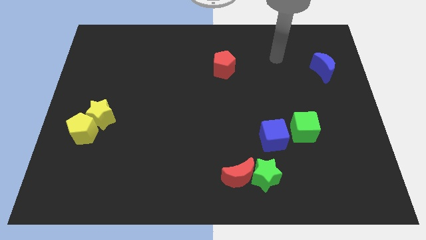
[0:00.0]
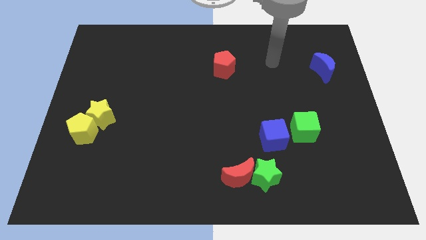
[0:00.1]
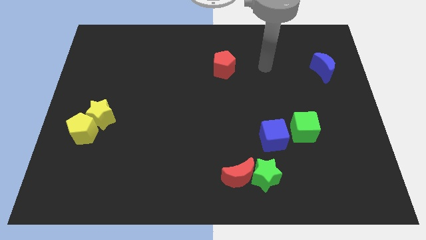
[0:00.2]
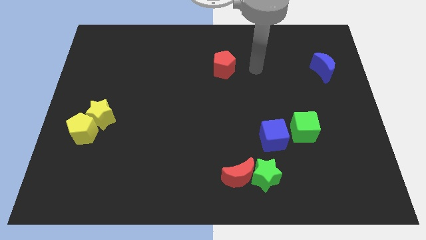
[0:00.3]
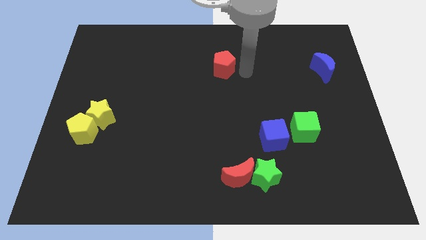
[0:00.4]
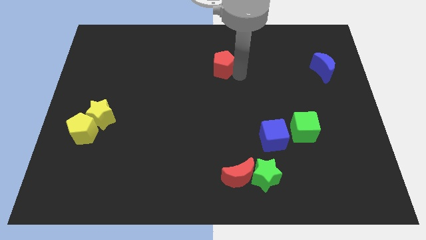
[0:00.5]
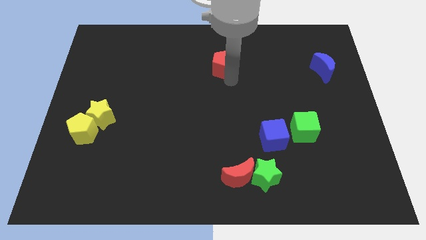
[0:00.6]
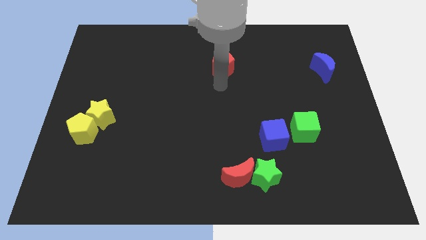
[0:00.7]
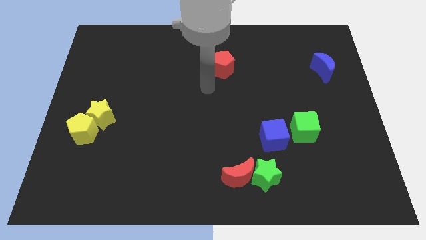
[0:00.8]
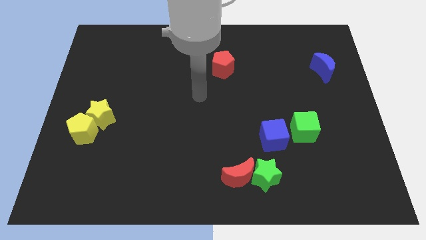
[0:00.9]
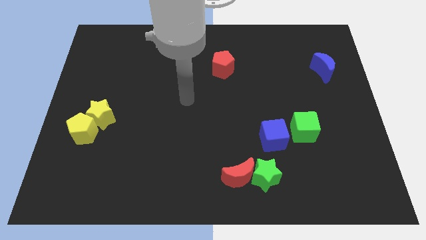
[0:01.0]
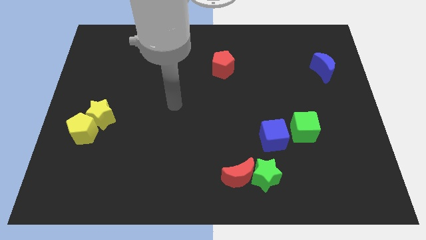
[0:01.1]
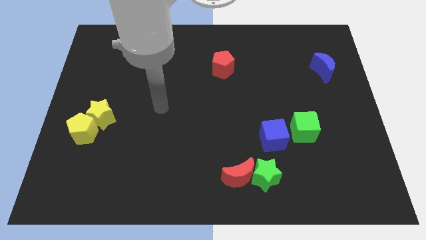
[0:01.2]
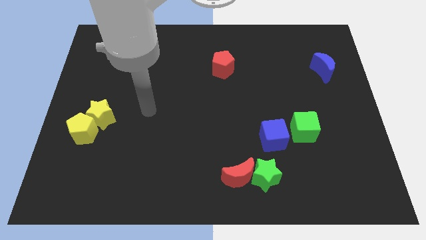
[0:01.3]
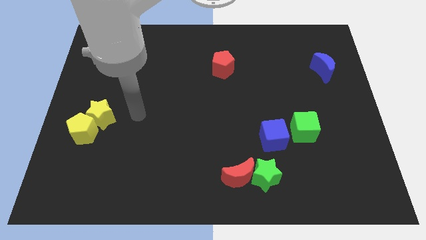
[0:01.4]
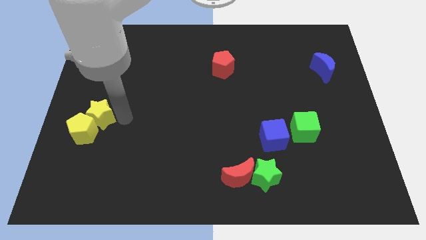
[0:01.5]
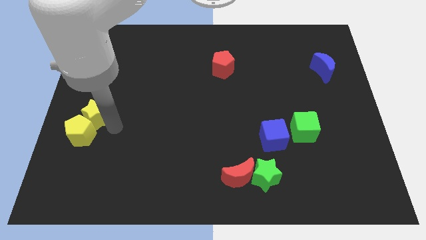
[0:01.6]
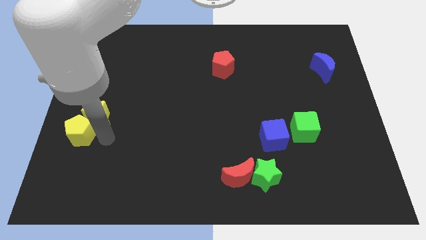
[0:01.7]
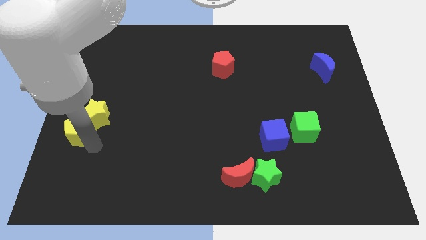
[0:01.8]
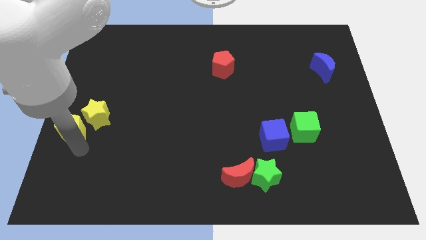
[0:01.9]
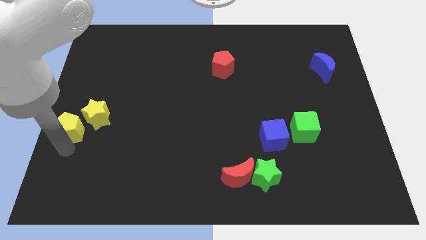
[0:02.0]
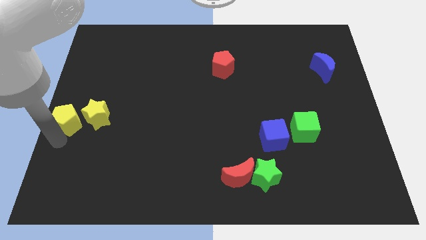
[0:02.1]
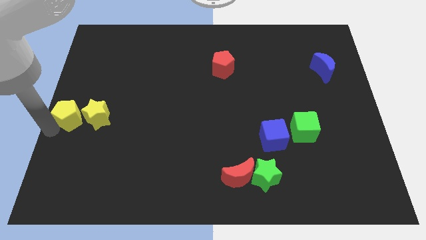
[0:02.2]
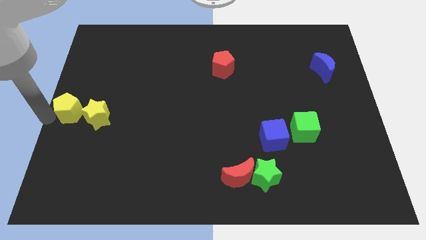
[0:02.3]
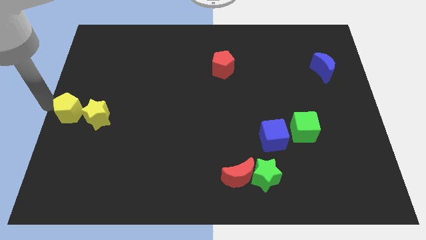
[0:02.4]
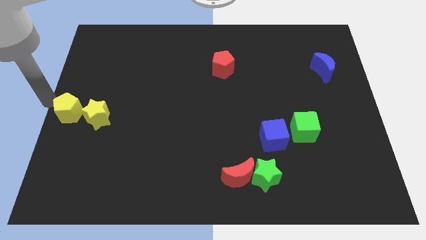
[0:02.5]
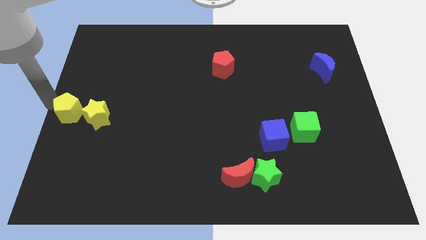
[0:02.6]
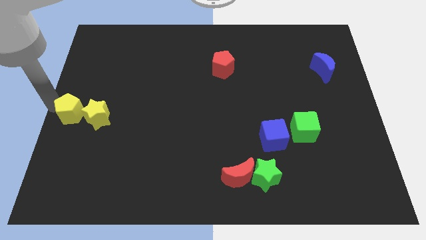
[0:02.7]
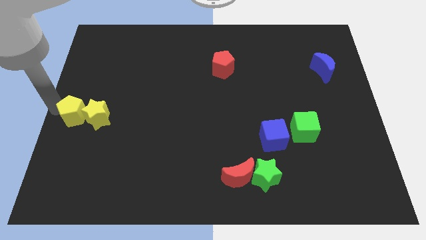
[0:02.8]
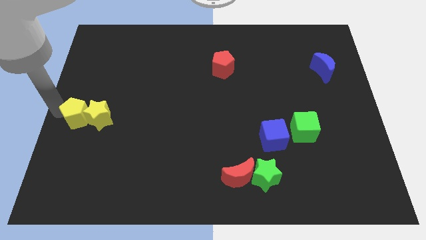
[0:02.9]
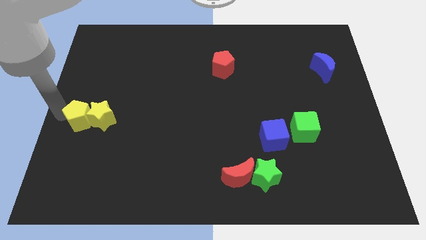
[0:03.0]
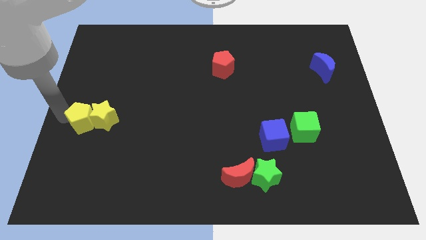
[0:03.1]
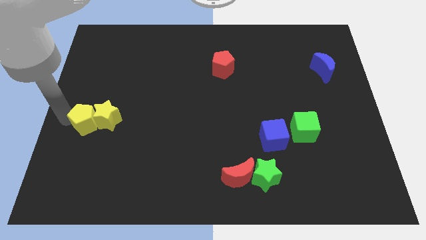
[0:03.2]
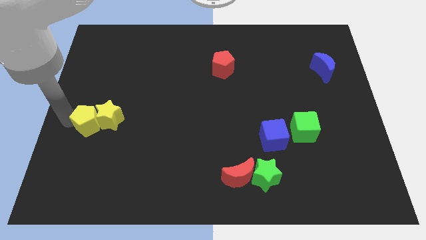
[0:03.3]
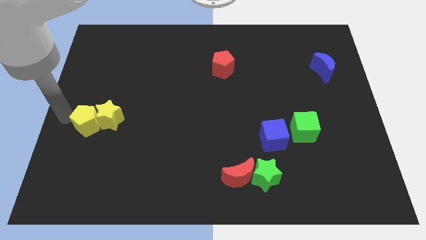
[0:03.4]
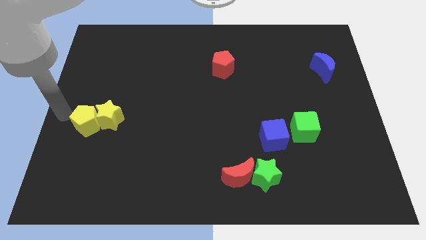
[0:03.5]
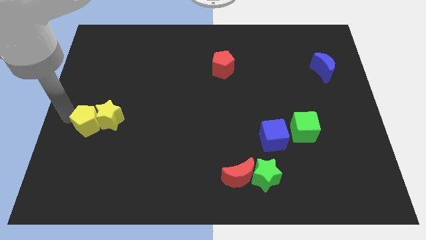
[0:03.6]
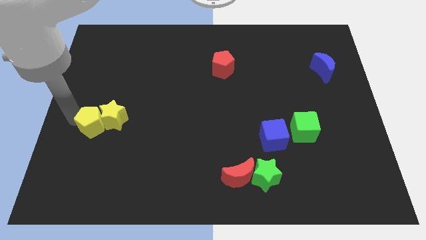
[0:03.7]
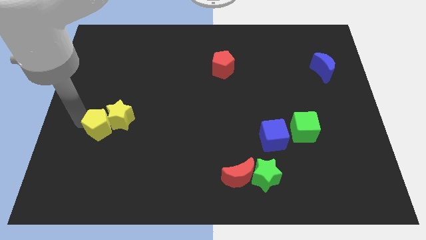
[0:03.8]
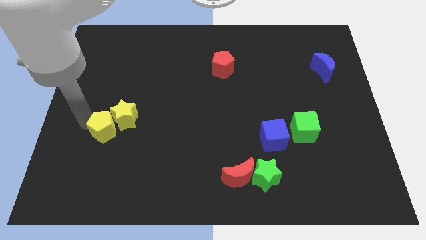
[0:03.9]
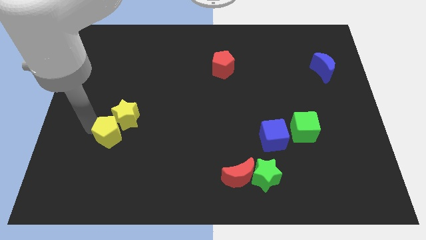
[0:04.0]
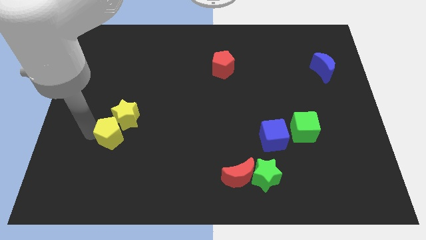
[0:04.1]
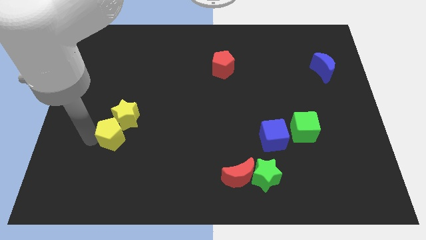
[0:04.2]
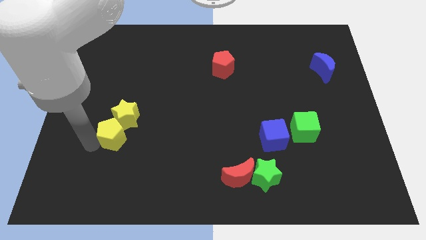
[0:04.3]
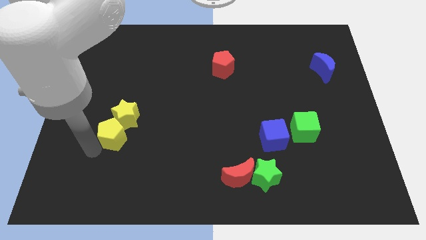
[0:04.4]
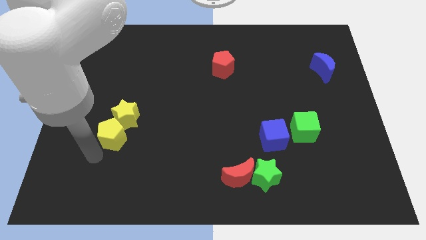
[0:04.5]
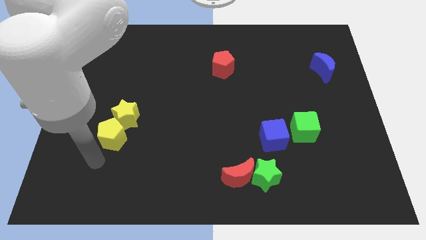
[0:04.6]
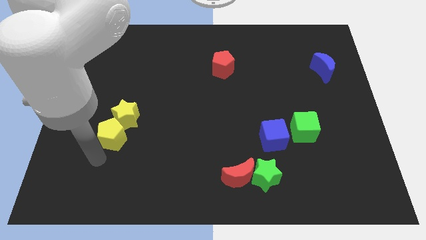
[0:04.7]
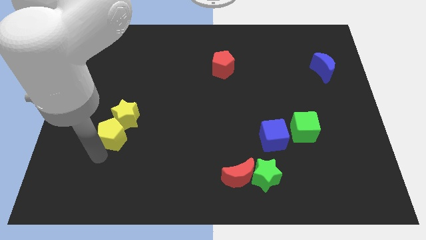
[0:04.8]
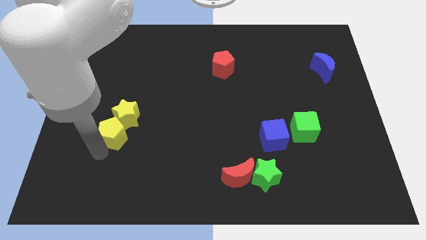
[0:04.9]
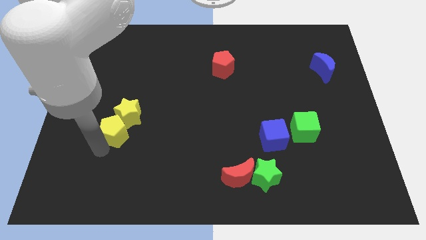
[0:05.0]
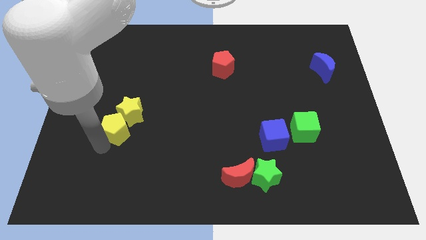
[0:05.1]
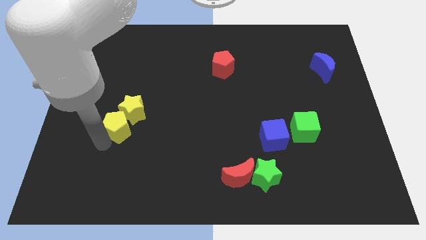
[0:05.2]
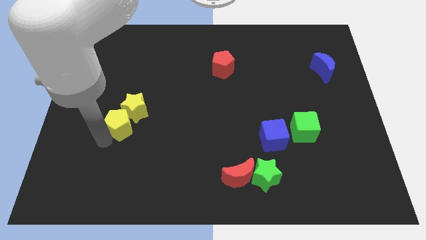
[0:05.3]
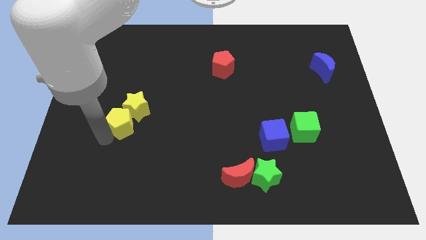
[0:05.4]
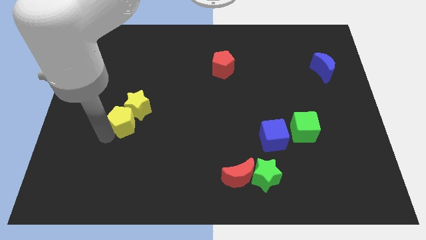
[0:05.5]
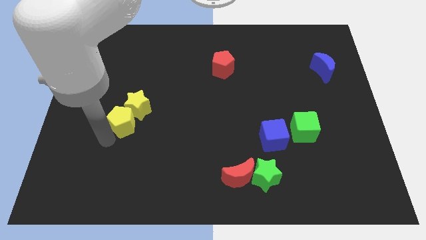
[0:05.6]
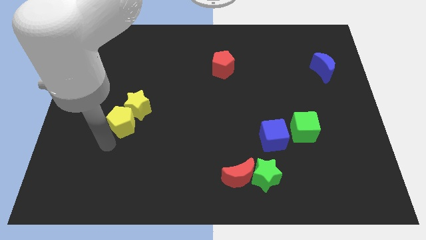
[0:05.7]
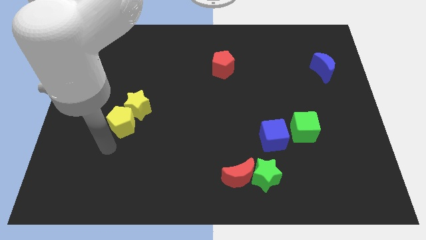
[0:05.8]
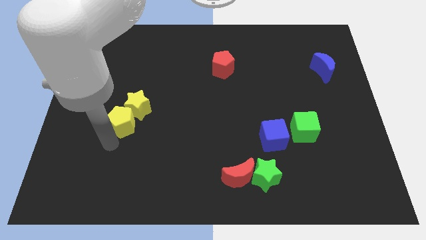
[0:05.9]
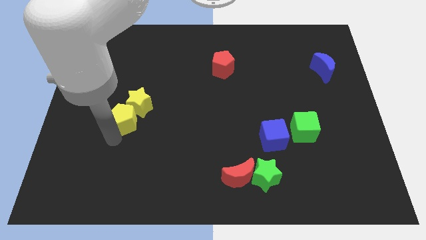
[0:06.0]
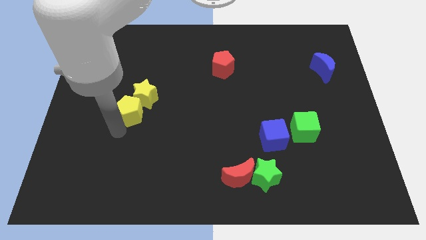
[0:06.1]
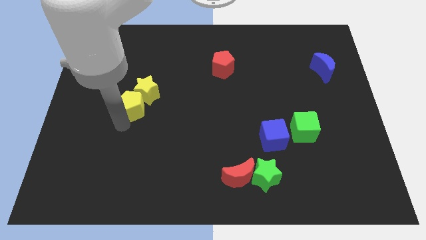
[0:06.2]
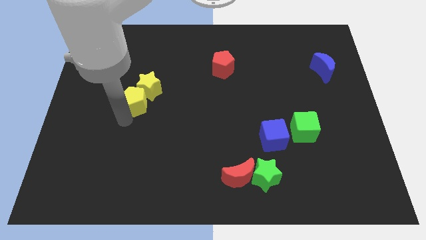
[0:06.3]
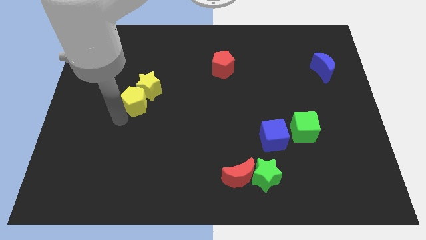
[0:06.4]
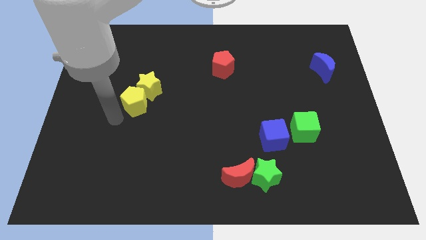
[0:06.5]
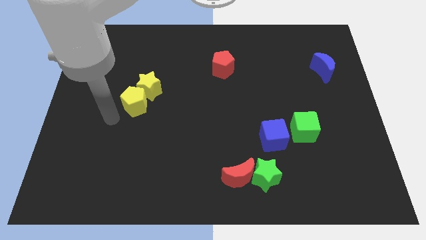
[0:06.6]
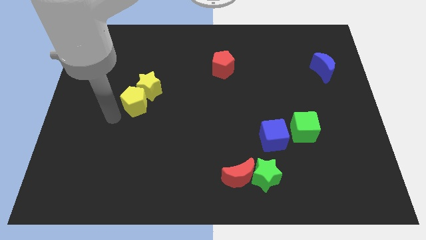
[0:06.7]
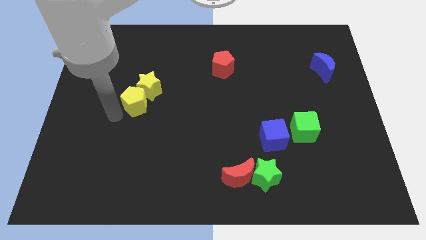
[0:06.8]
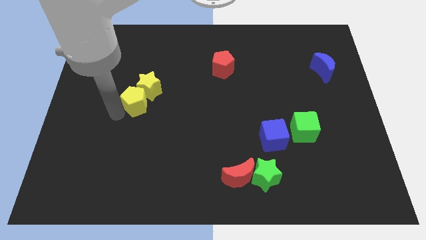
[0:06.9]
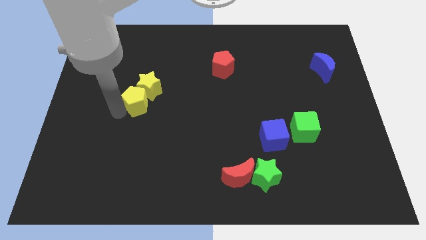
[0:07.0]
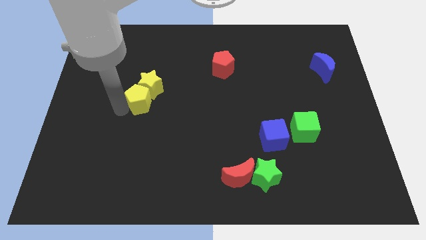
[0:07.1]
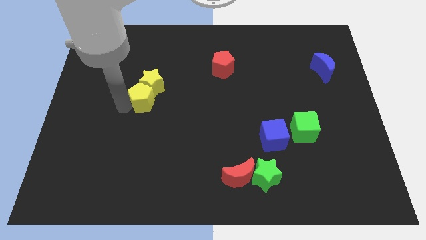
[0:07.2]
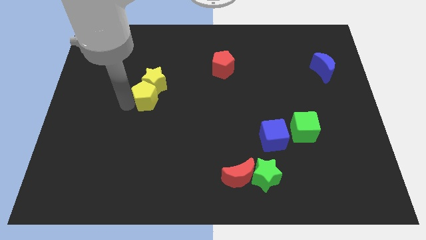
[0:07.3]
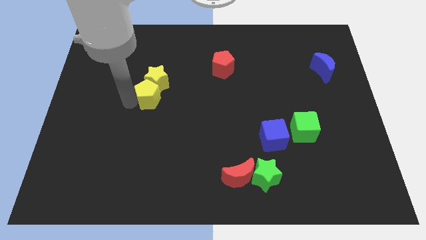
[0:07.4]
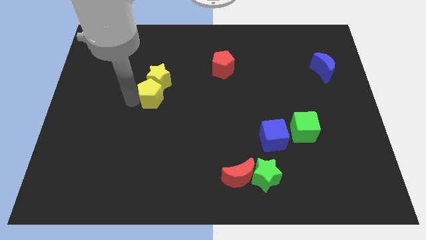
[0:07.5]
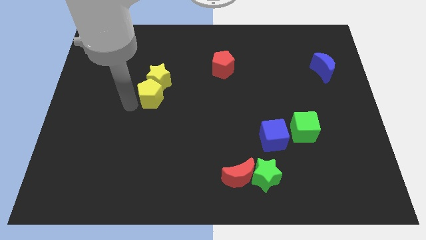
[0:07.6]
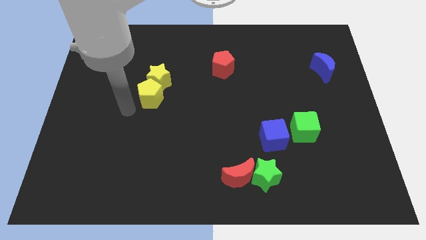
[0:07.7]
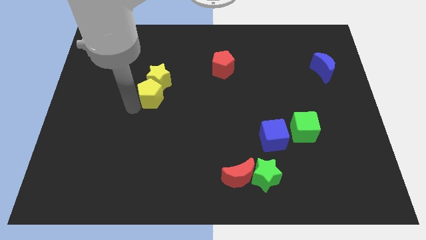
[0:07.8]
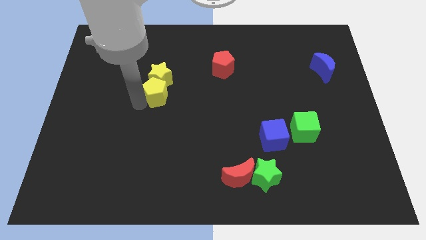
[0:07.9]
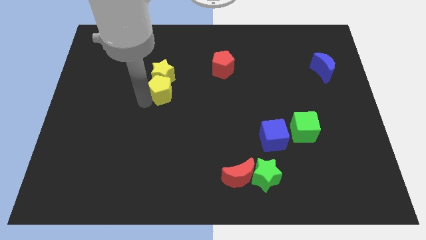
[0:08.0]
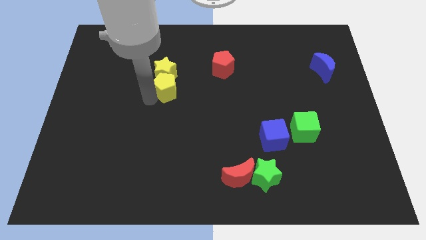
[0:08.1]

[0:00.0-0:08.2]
slide the yellow pentagon upwards and right
